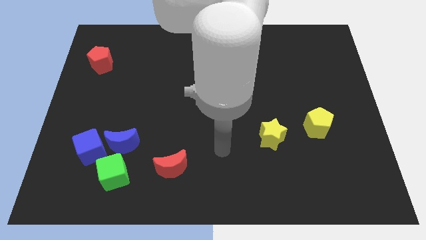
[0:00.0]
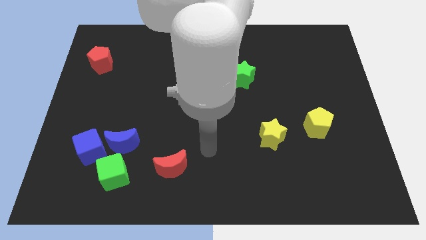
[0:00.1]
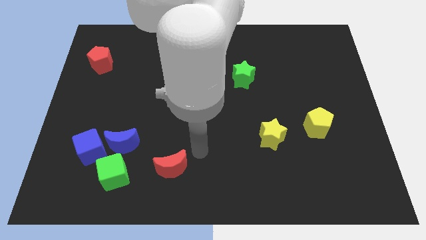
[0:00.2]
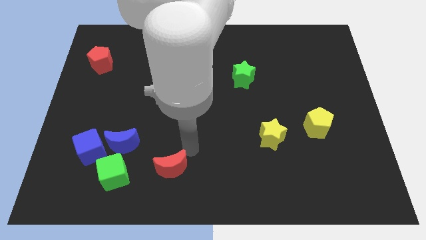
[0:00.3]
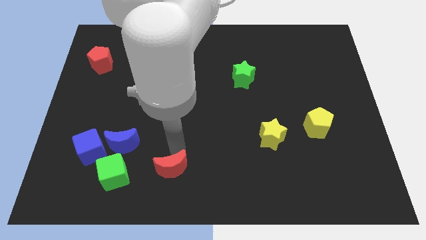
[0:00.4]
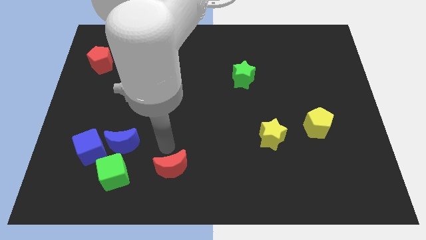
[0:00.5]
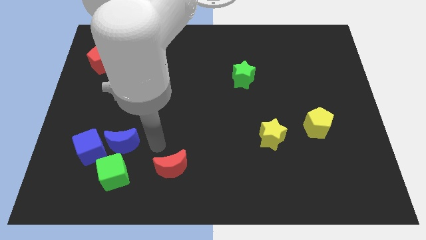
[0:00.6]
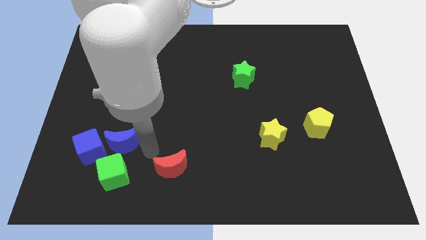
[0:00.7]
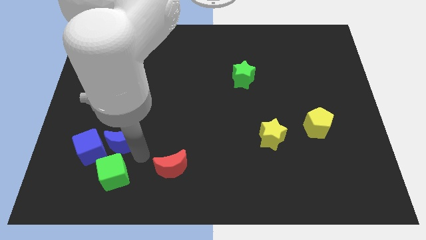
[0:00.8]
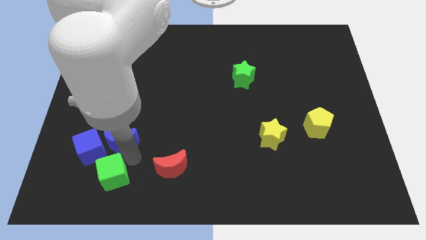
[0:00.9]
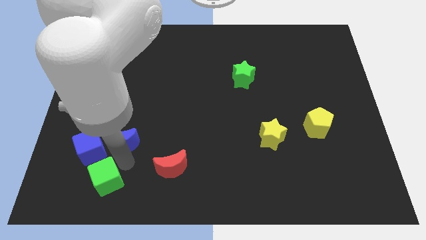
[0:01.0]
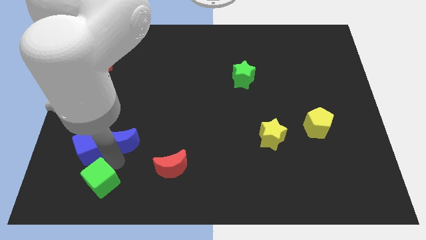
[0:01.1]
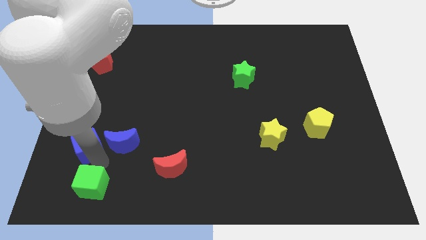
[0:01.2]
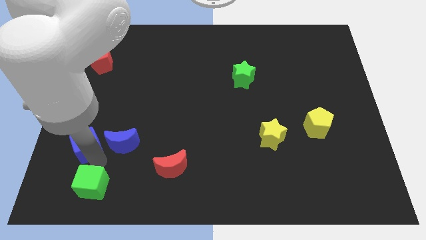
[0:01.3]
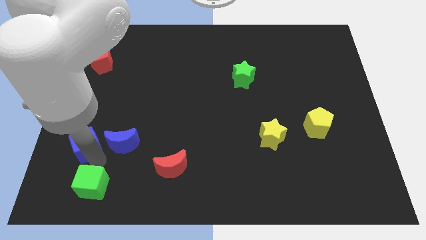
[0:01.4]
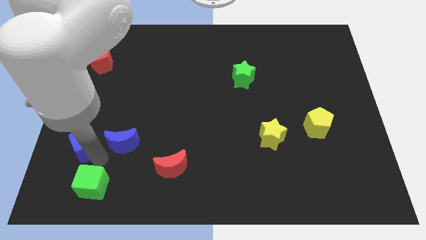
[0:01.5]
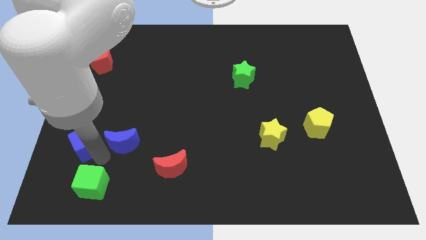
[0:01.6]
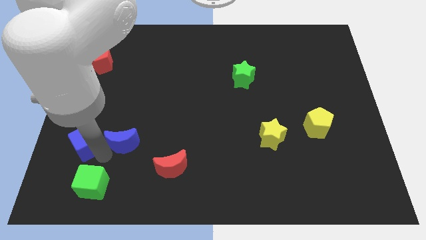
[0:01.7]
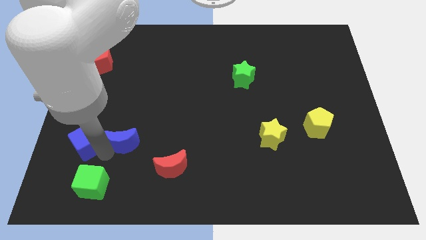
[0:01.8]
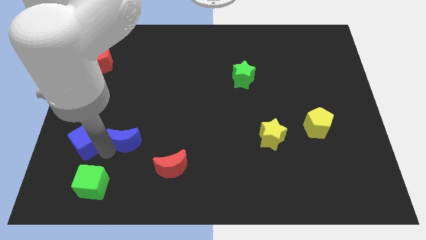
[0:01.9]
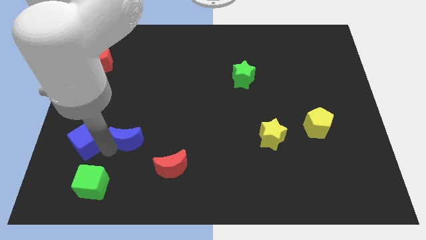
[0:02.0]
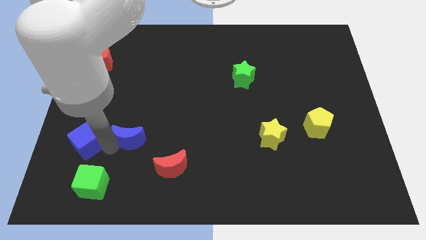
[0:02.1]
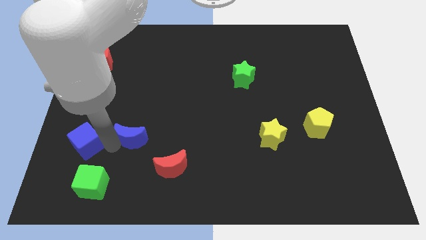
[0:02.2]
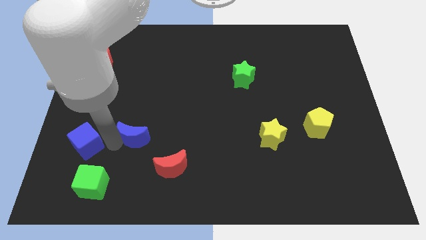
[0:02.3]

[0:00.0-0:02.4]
separate the blue moon from the blue cube and green cube

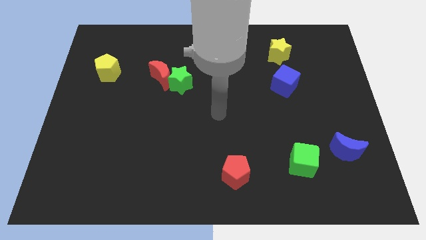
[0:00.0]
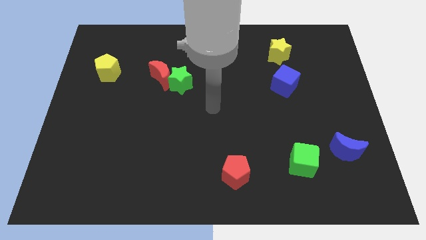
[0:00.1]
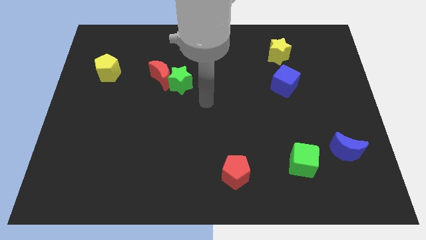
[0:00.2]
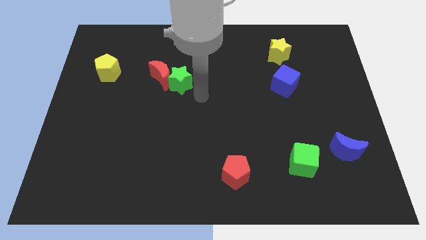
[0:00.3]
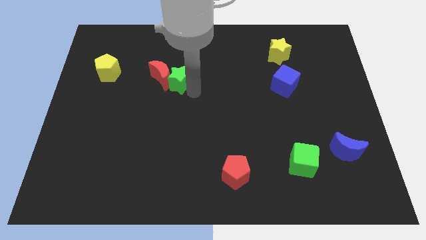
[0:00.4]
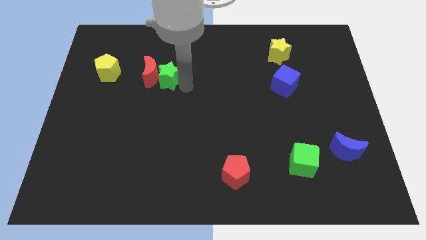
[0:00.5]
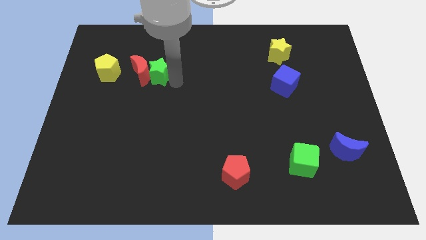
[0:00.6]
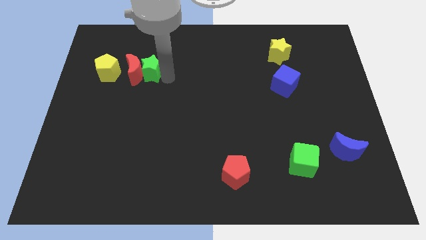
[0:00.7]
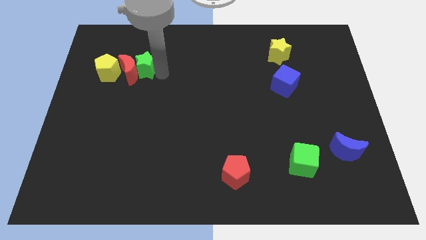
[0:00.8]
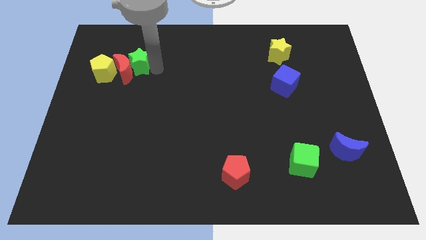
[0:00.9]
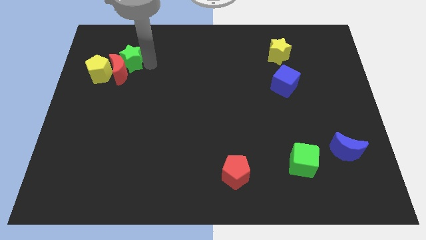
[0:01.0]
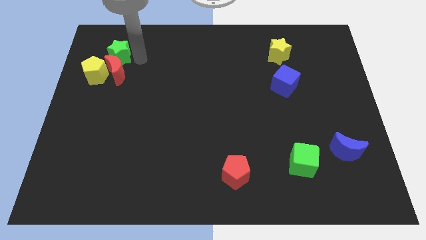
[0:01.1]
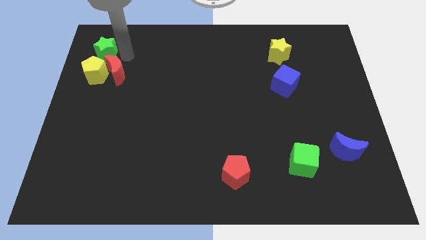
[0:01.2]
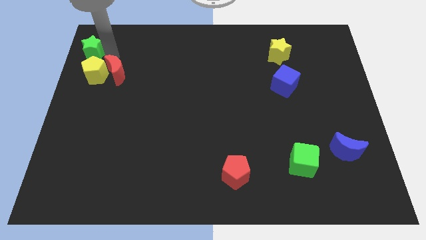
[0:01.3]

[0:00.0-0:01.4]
separate the red moon from the green star

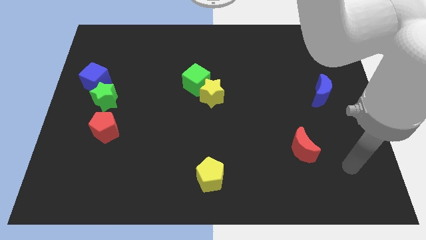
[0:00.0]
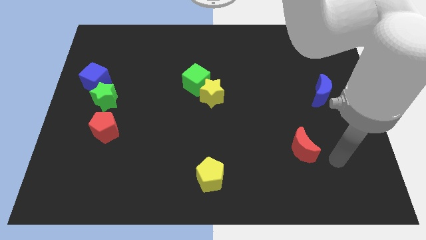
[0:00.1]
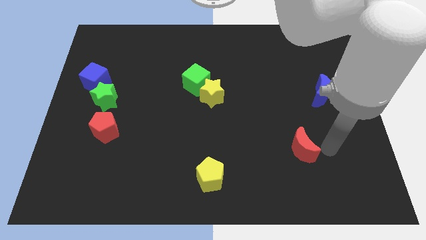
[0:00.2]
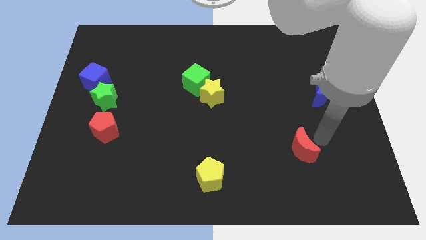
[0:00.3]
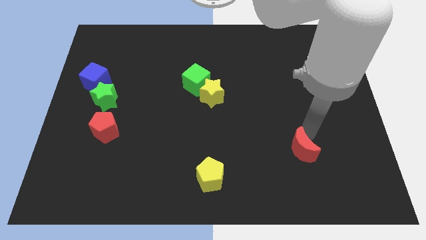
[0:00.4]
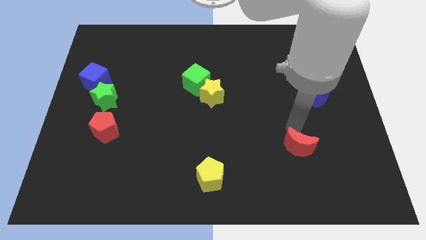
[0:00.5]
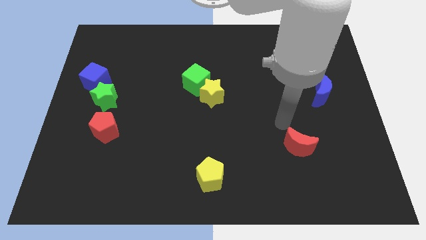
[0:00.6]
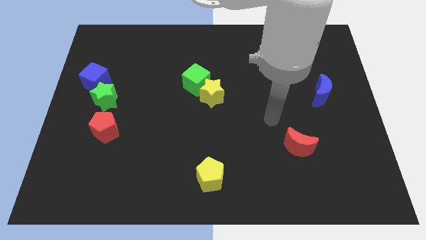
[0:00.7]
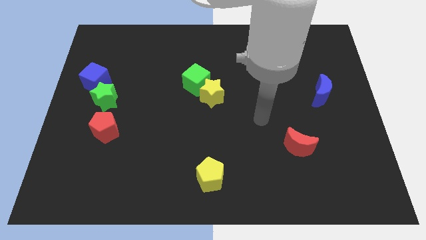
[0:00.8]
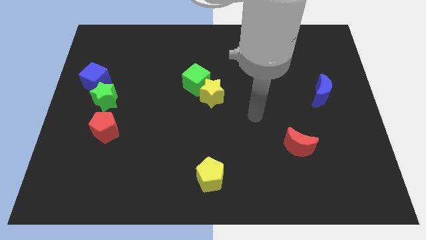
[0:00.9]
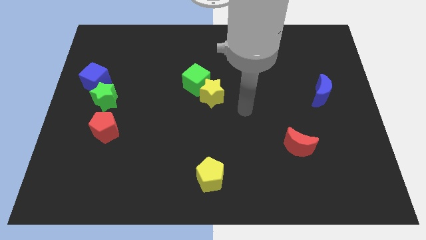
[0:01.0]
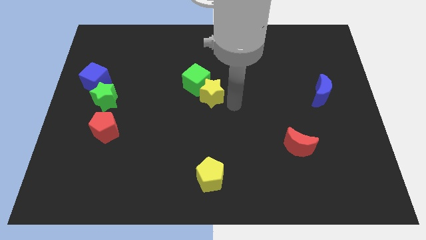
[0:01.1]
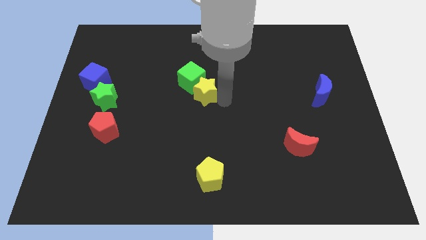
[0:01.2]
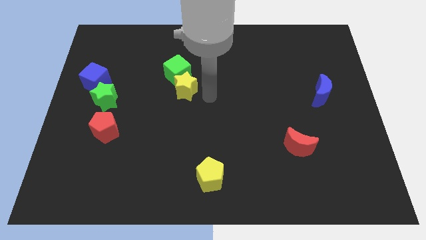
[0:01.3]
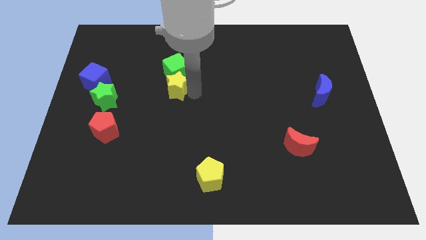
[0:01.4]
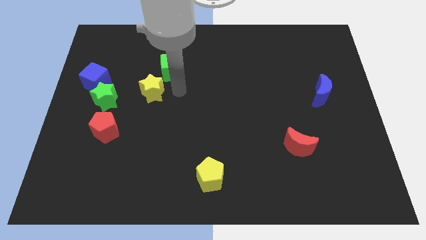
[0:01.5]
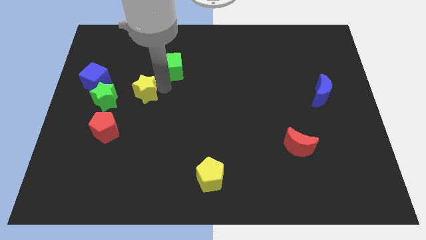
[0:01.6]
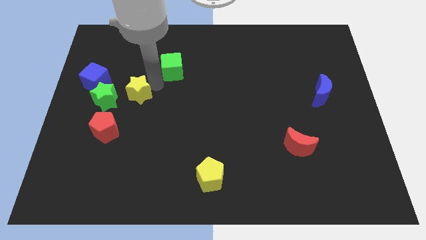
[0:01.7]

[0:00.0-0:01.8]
move the green cube away from the yellow star

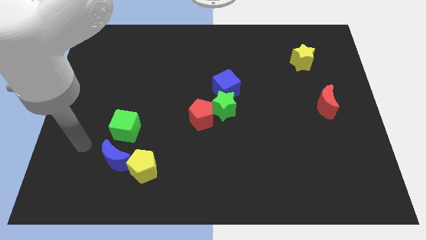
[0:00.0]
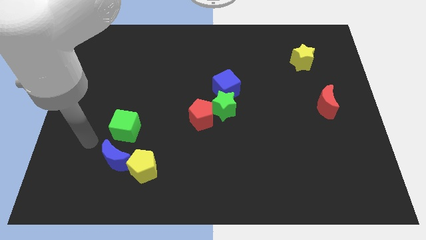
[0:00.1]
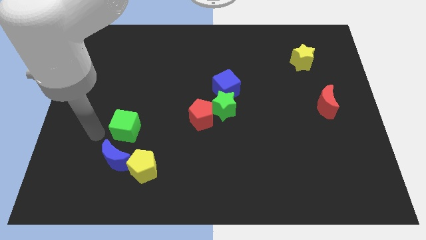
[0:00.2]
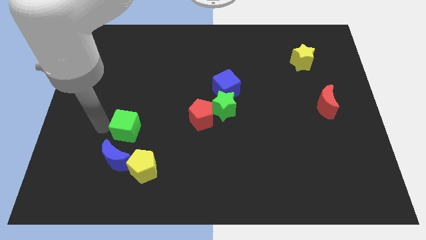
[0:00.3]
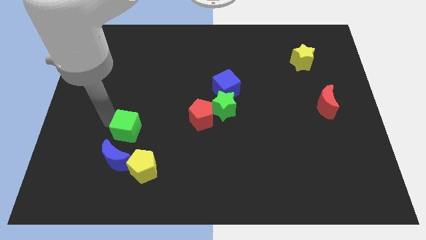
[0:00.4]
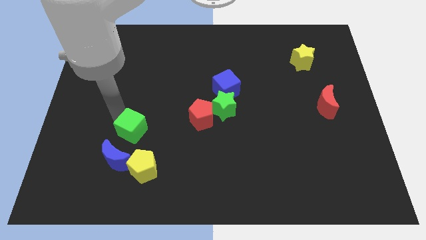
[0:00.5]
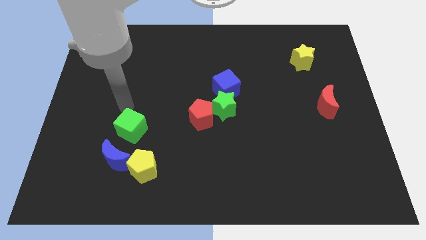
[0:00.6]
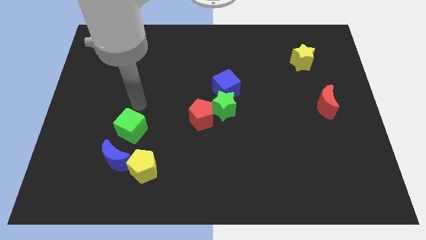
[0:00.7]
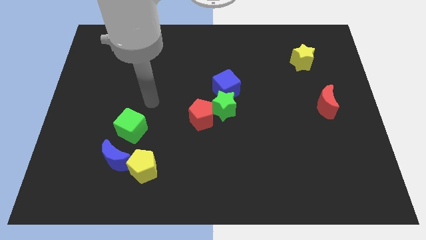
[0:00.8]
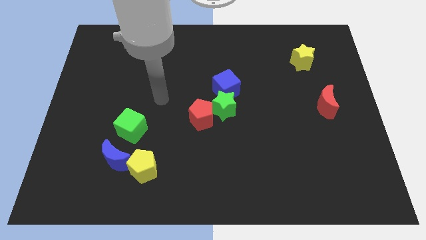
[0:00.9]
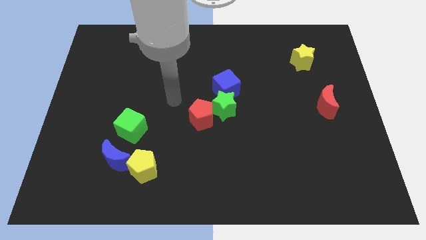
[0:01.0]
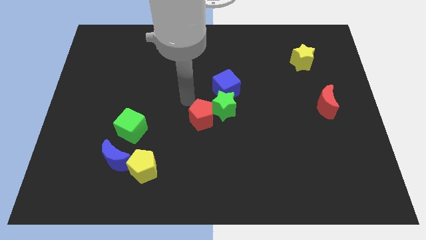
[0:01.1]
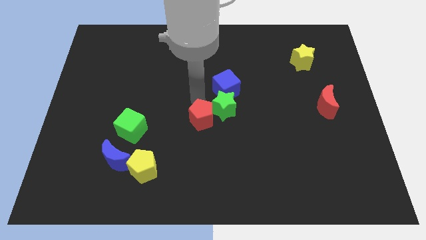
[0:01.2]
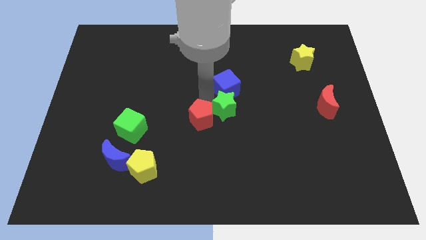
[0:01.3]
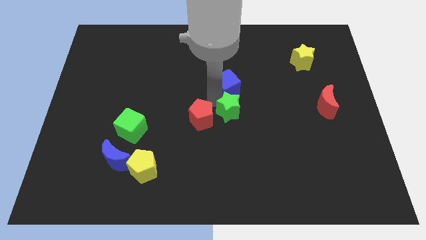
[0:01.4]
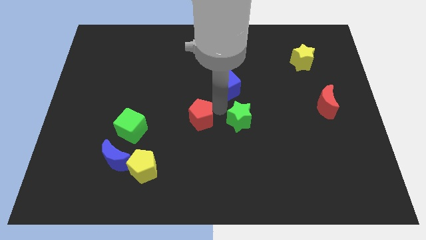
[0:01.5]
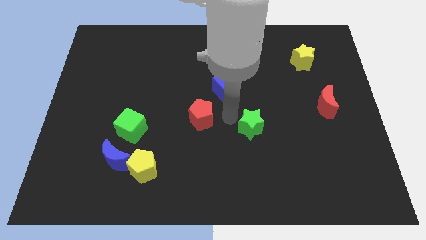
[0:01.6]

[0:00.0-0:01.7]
pull the red pentagon apart from the green star

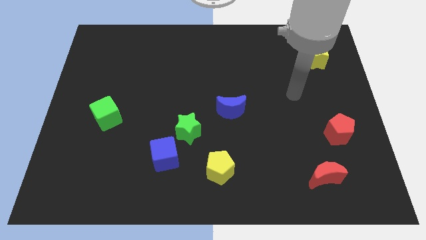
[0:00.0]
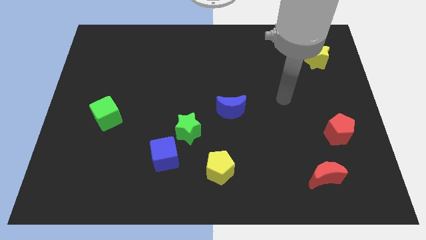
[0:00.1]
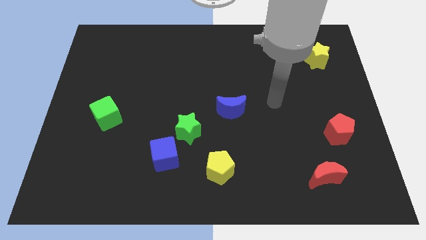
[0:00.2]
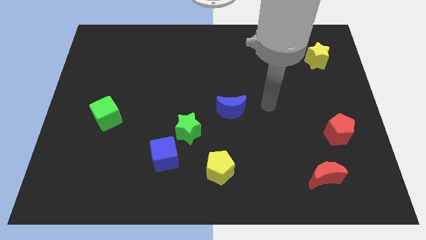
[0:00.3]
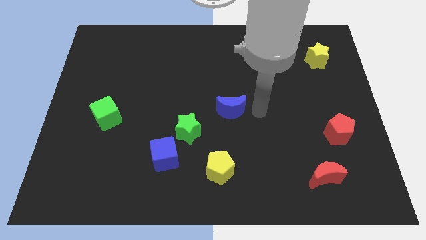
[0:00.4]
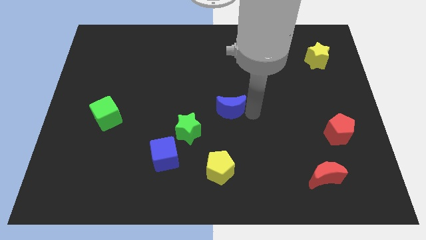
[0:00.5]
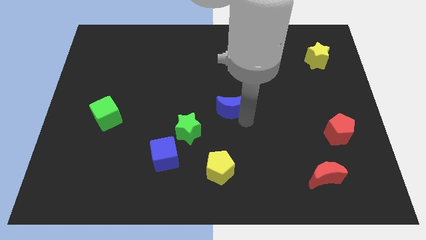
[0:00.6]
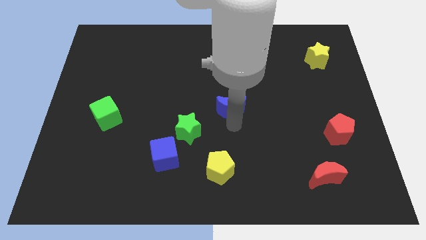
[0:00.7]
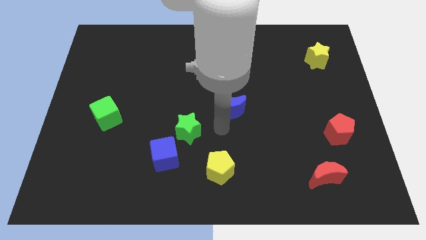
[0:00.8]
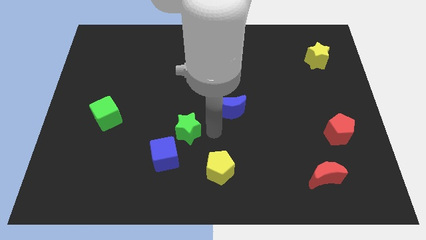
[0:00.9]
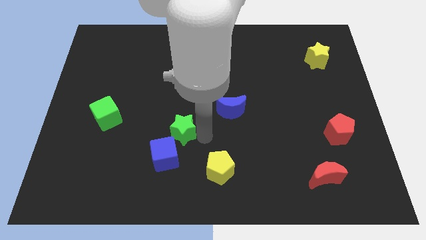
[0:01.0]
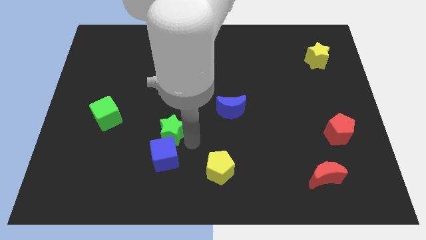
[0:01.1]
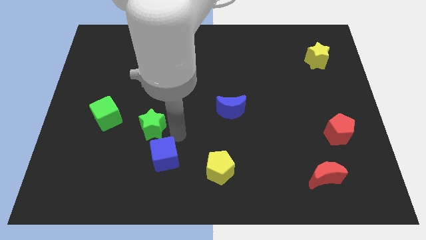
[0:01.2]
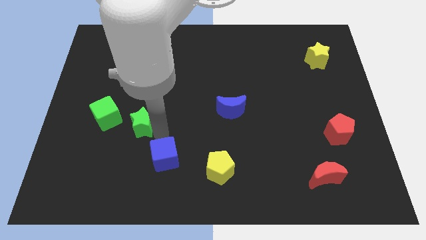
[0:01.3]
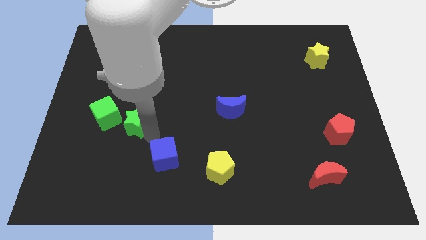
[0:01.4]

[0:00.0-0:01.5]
pull the blue cube apart from the green star

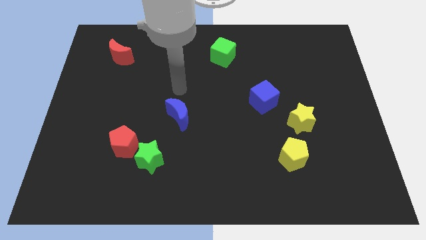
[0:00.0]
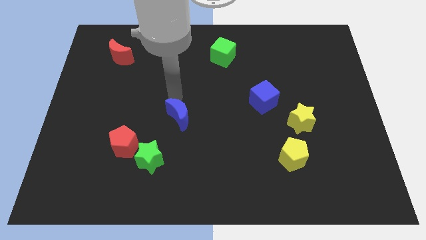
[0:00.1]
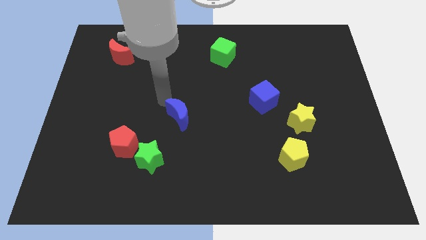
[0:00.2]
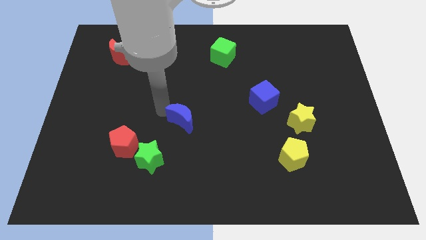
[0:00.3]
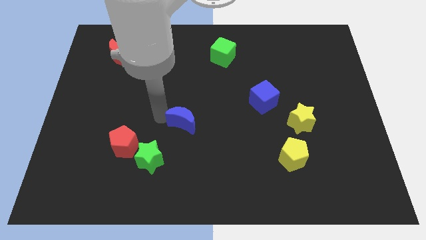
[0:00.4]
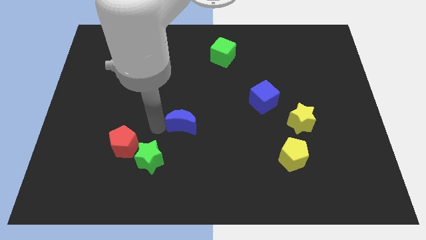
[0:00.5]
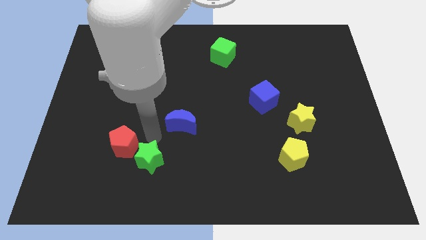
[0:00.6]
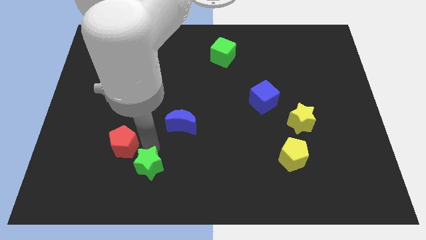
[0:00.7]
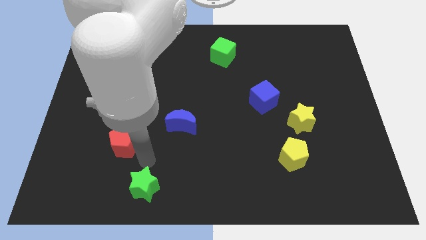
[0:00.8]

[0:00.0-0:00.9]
move the red pentagon away from the green star
